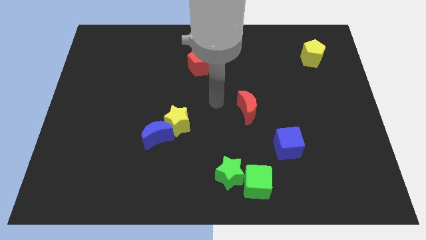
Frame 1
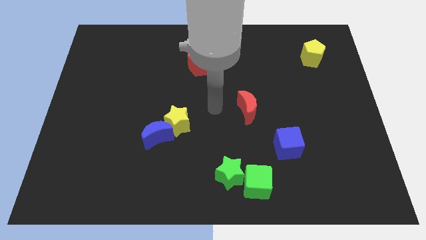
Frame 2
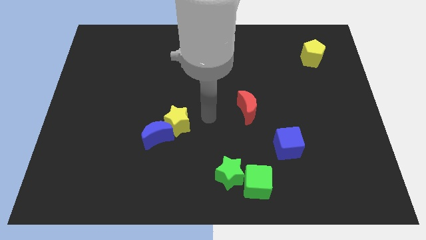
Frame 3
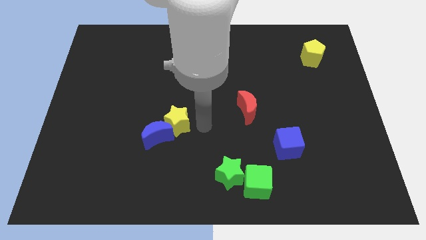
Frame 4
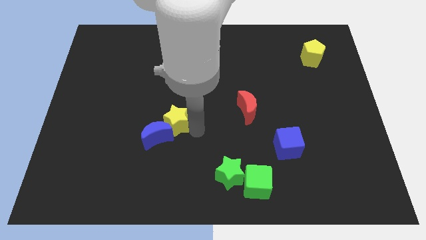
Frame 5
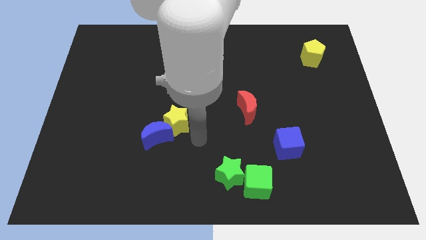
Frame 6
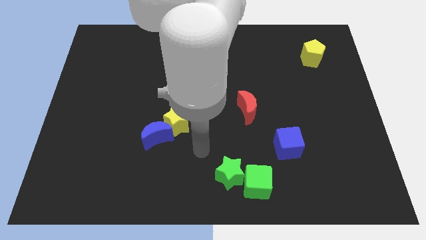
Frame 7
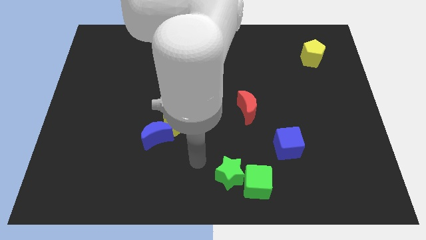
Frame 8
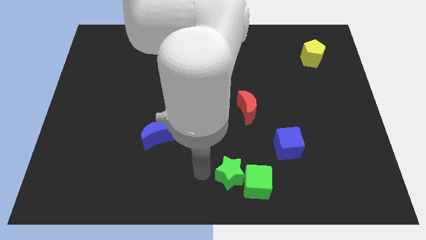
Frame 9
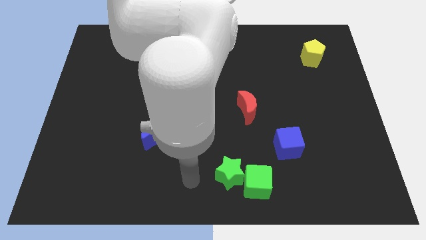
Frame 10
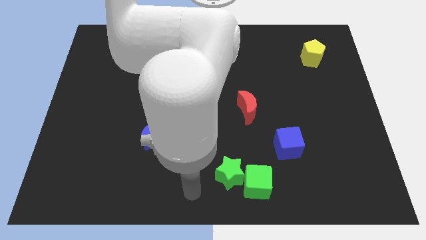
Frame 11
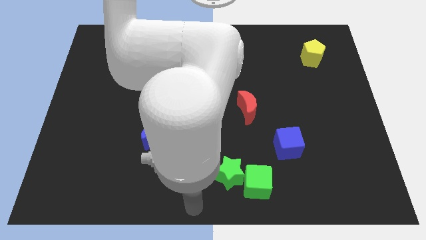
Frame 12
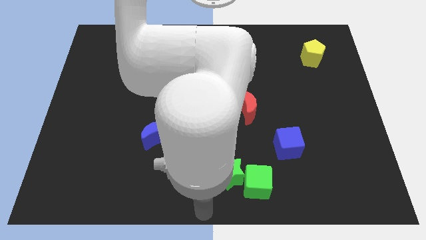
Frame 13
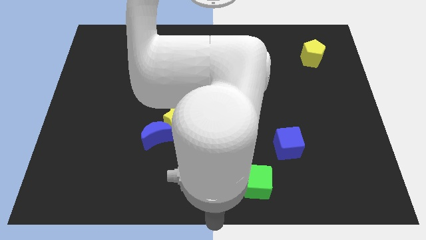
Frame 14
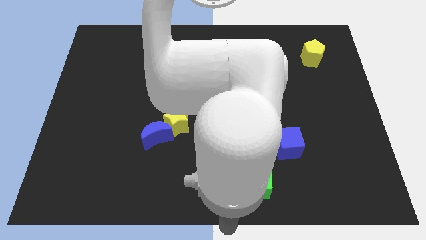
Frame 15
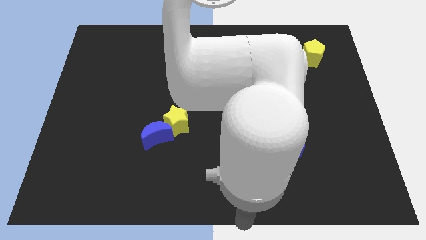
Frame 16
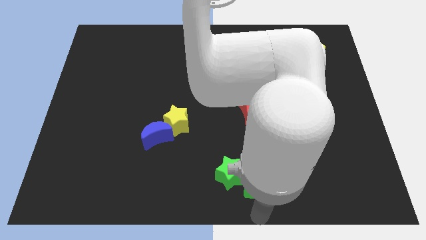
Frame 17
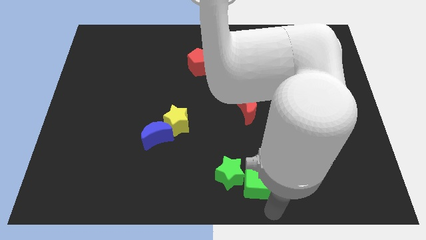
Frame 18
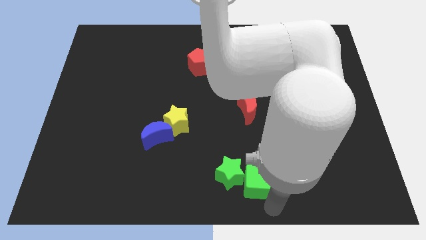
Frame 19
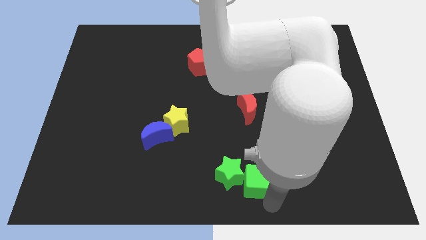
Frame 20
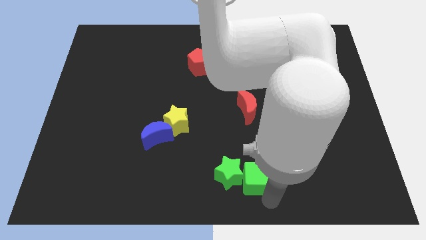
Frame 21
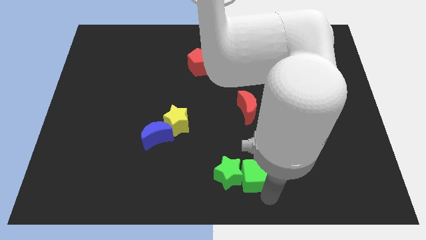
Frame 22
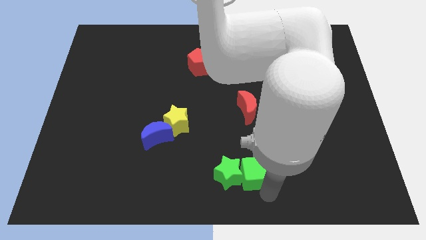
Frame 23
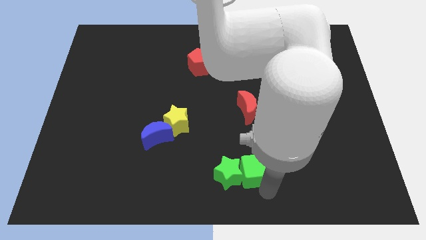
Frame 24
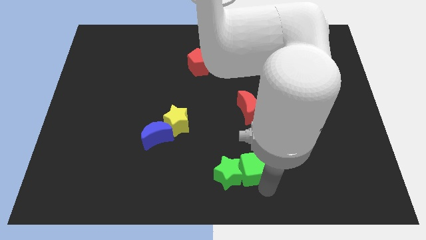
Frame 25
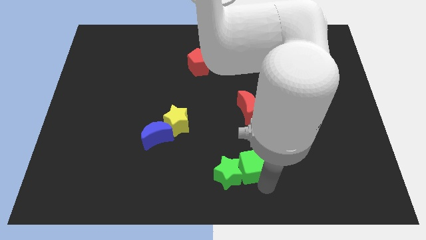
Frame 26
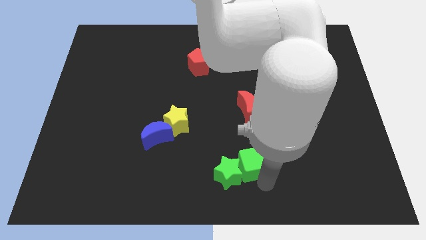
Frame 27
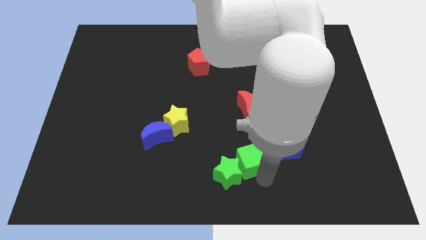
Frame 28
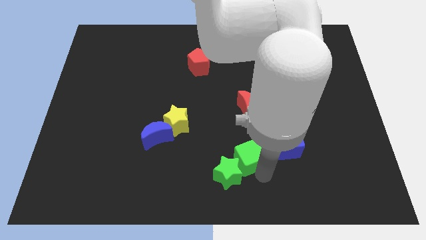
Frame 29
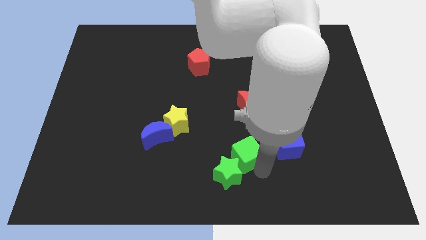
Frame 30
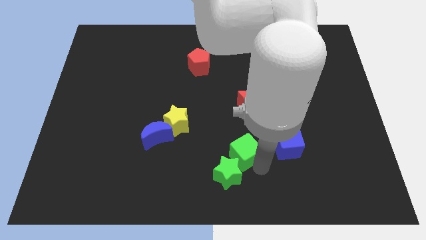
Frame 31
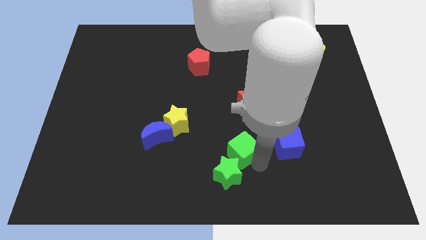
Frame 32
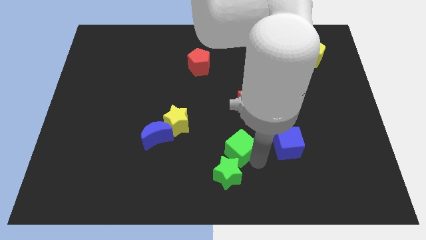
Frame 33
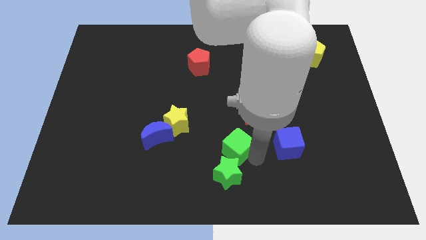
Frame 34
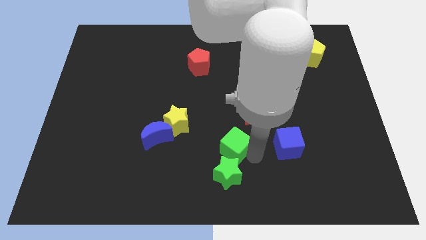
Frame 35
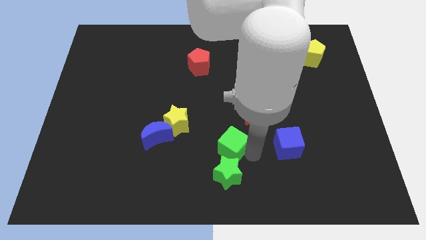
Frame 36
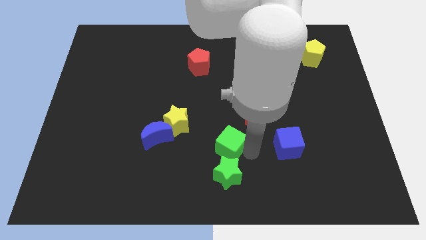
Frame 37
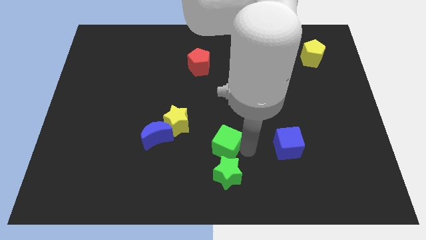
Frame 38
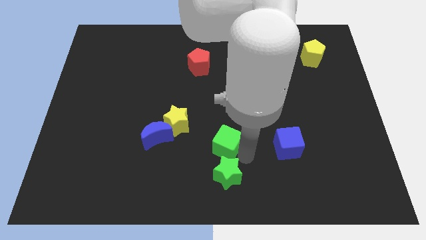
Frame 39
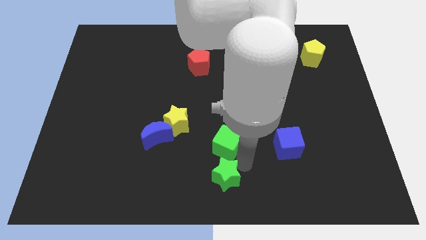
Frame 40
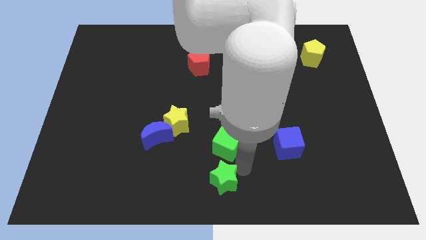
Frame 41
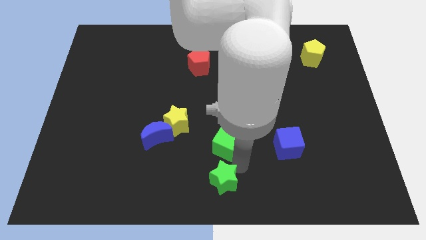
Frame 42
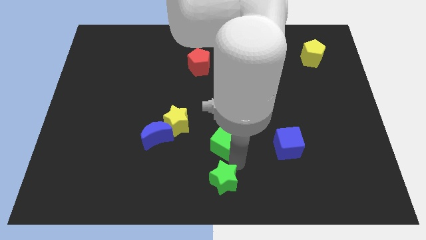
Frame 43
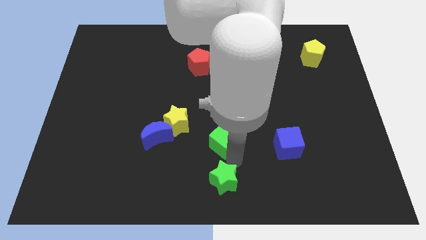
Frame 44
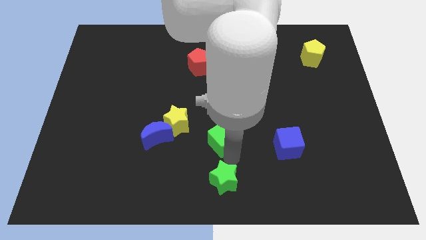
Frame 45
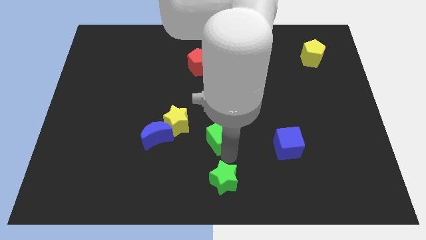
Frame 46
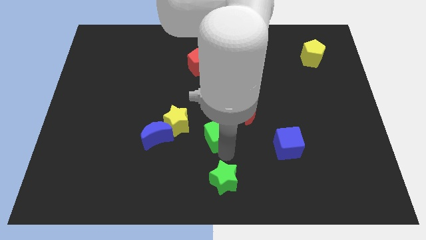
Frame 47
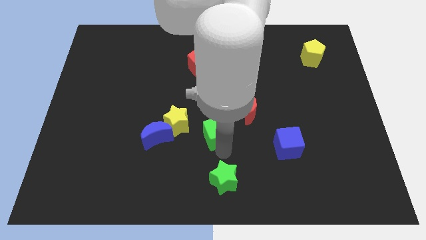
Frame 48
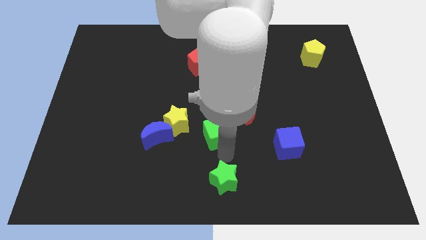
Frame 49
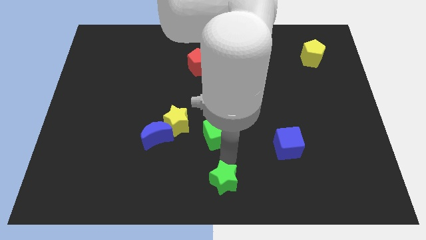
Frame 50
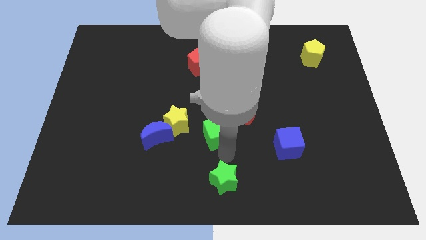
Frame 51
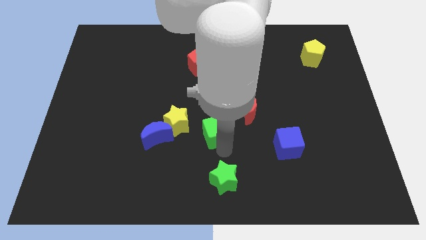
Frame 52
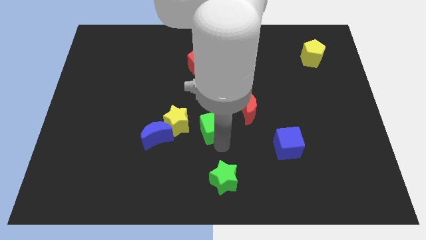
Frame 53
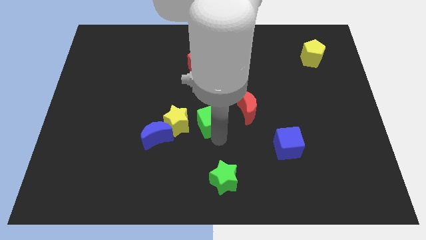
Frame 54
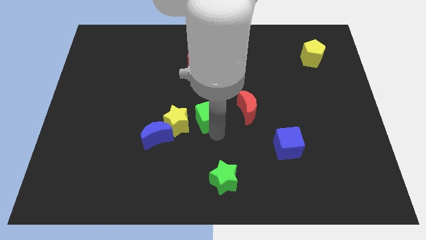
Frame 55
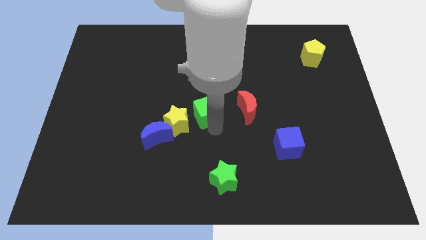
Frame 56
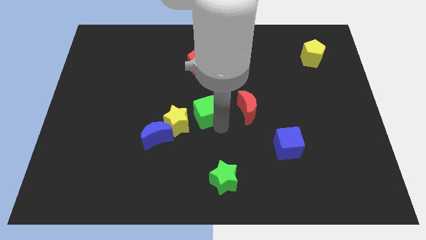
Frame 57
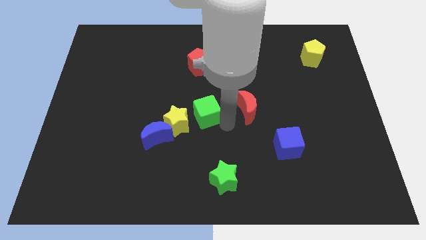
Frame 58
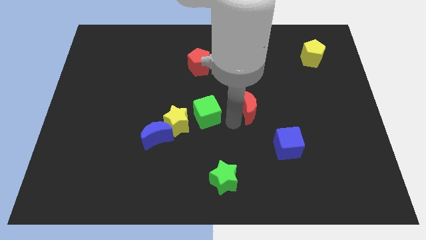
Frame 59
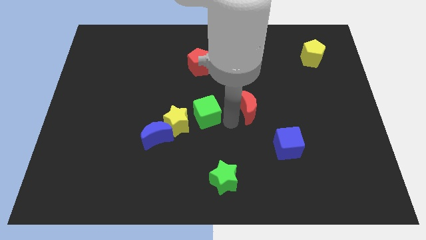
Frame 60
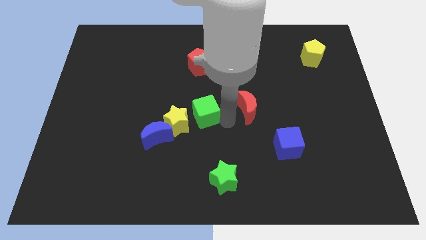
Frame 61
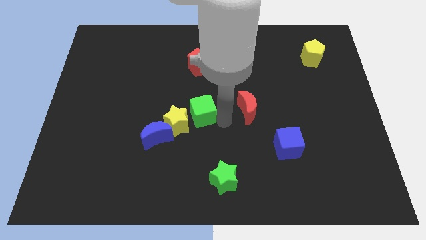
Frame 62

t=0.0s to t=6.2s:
slide the green cube upwards and left

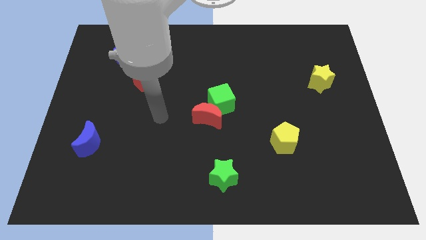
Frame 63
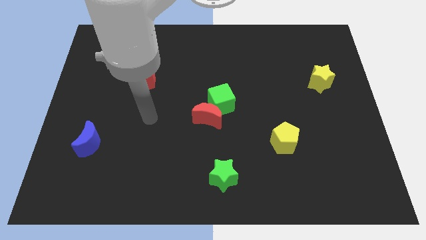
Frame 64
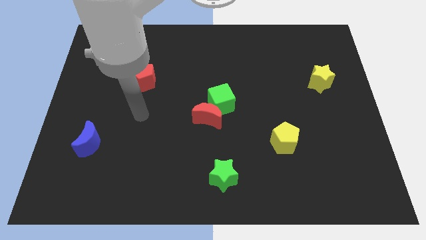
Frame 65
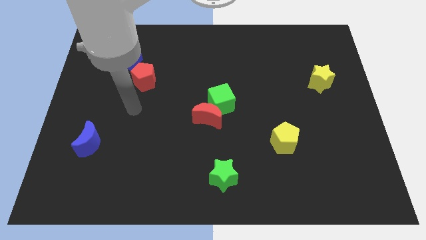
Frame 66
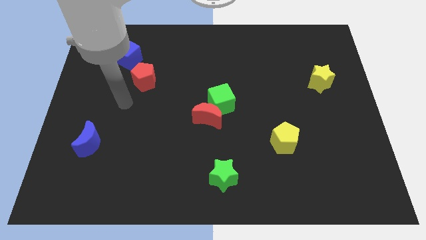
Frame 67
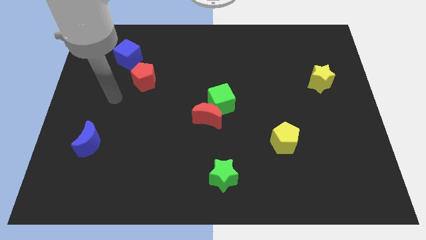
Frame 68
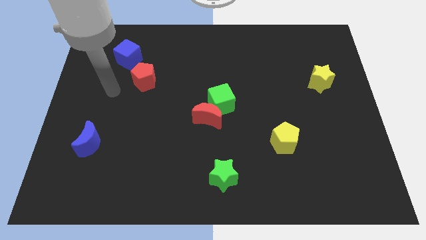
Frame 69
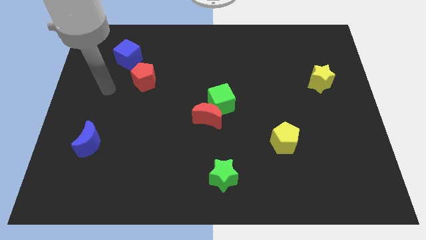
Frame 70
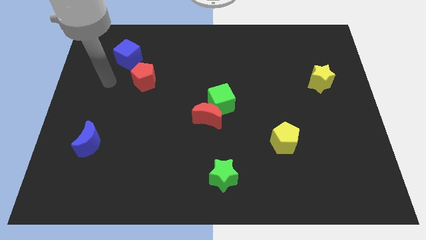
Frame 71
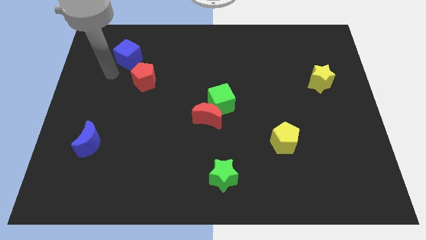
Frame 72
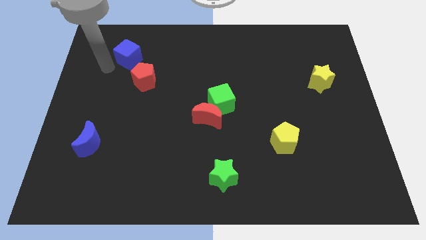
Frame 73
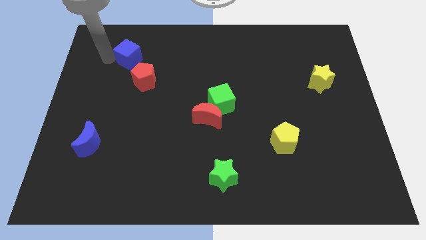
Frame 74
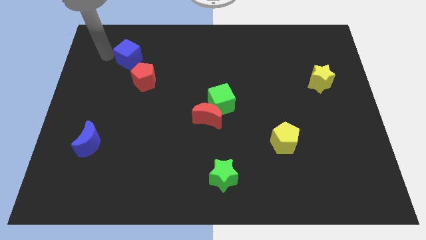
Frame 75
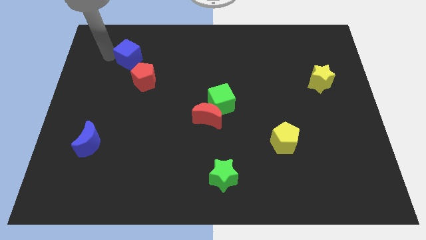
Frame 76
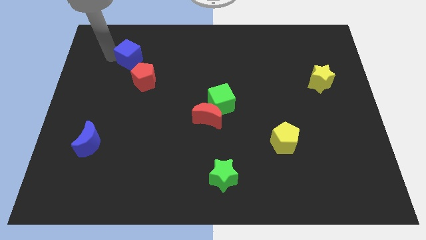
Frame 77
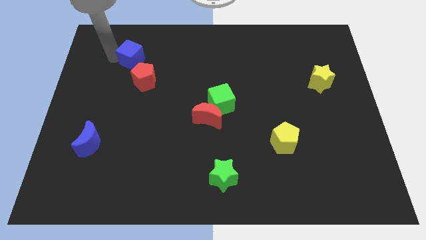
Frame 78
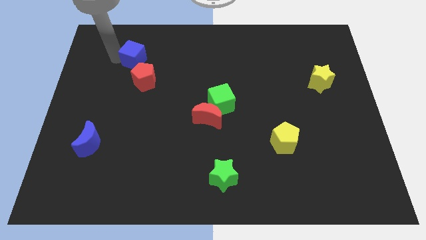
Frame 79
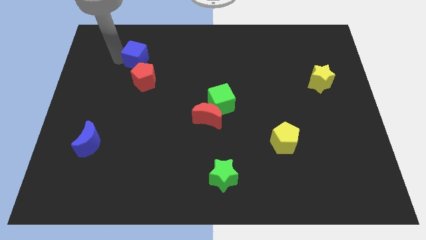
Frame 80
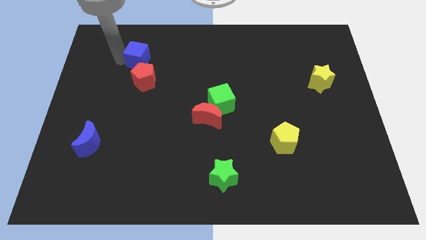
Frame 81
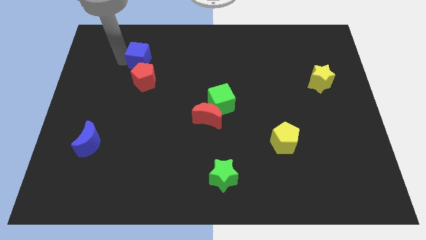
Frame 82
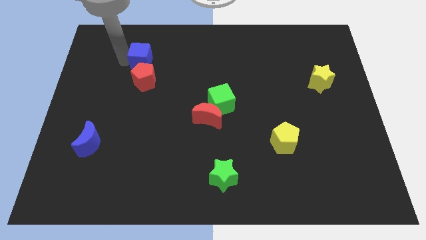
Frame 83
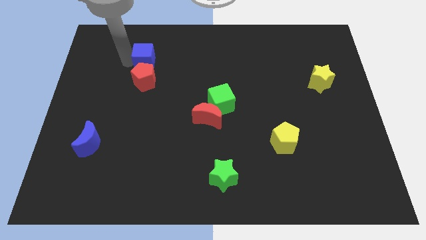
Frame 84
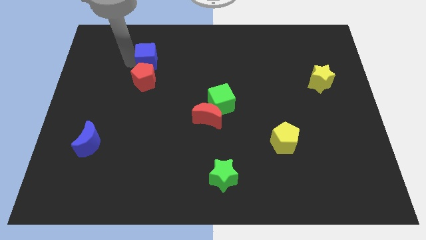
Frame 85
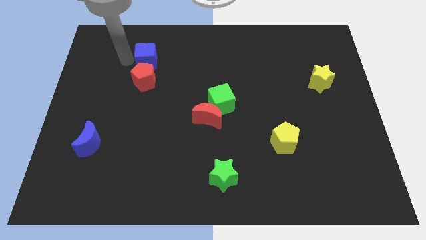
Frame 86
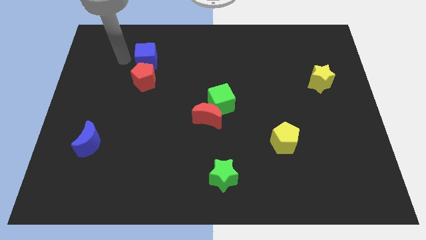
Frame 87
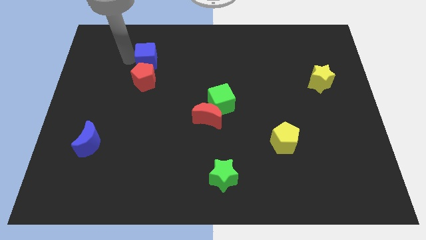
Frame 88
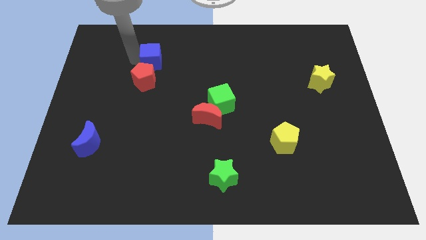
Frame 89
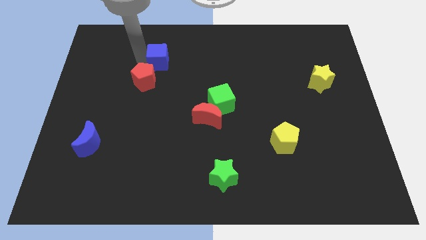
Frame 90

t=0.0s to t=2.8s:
push the blue cube a little bit right
